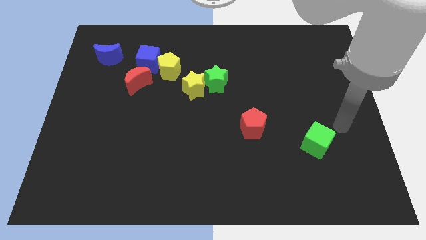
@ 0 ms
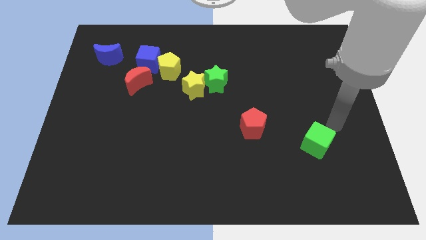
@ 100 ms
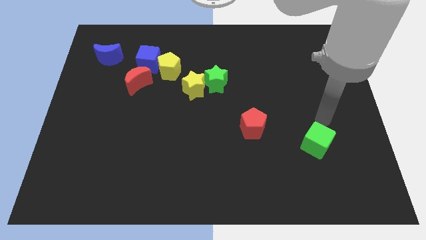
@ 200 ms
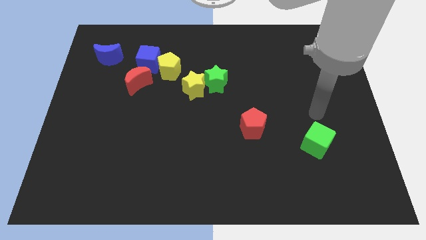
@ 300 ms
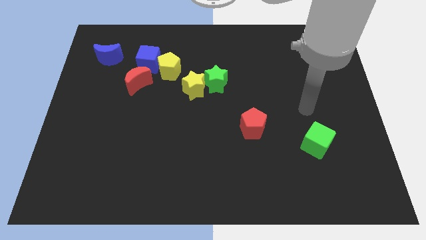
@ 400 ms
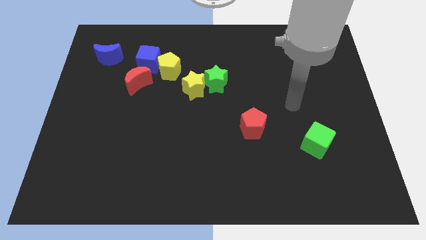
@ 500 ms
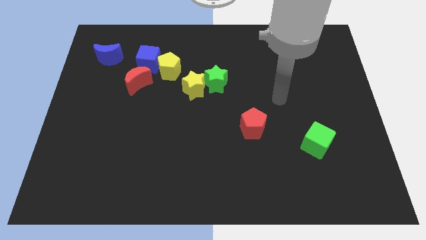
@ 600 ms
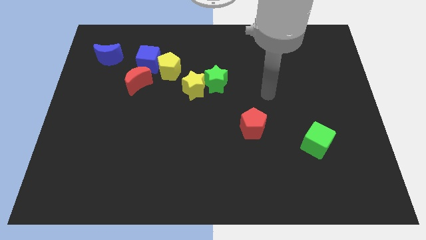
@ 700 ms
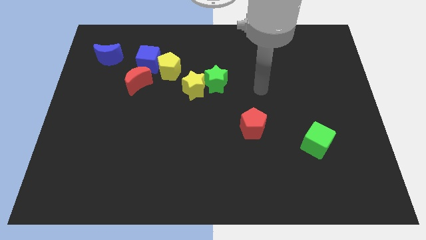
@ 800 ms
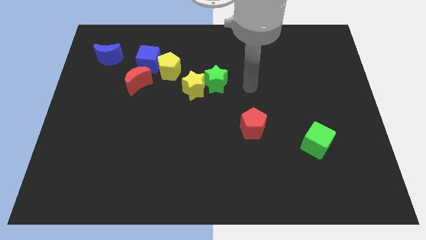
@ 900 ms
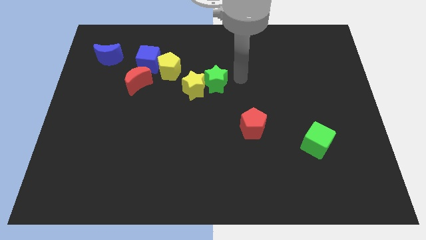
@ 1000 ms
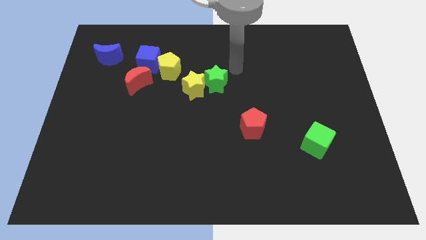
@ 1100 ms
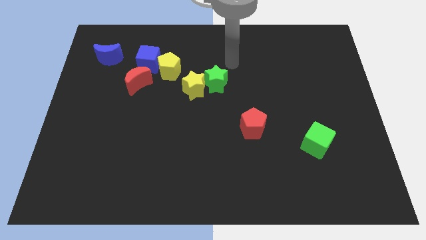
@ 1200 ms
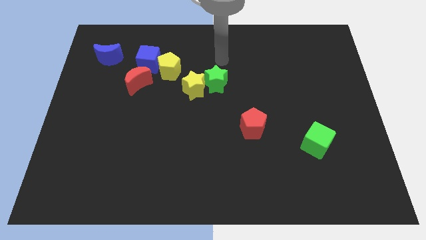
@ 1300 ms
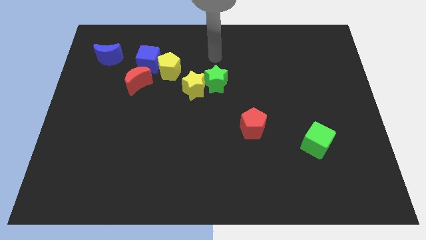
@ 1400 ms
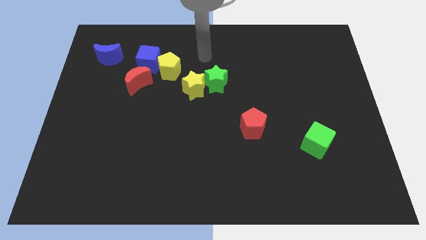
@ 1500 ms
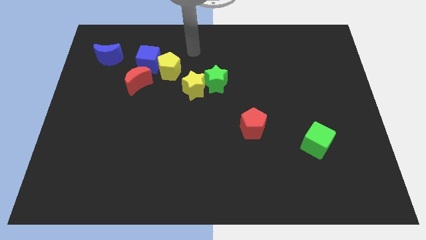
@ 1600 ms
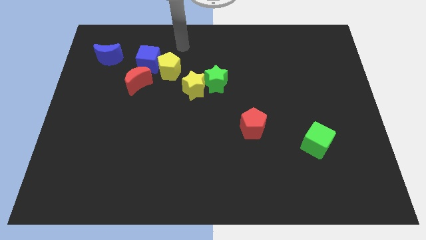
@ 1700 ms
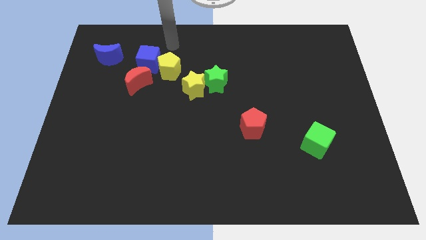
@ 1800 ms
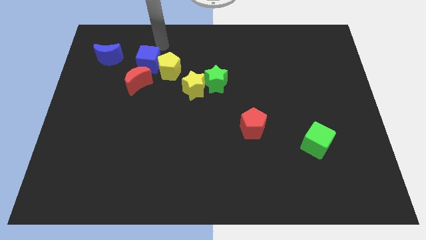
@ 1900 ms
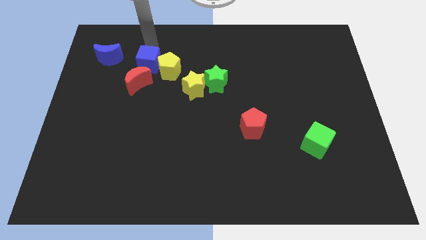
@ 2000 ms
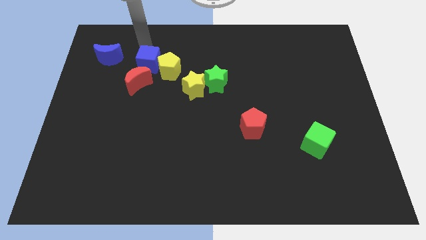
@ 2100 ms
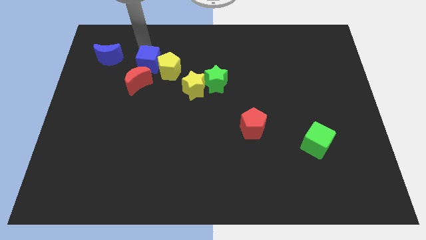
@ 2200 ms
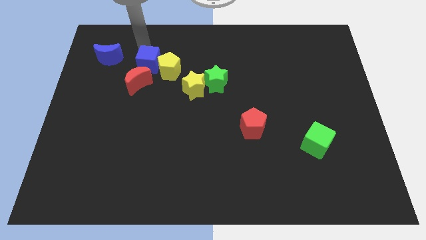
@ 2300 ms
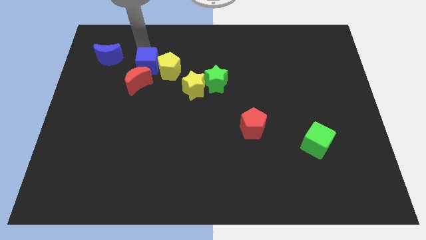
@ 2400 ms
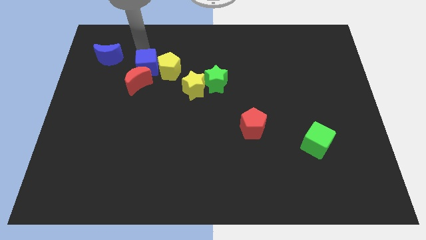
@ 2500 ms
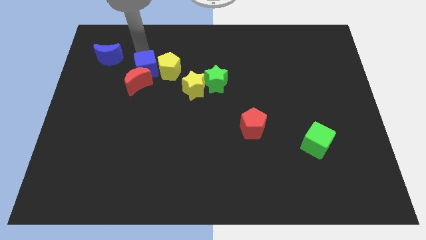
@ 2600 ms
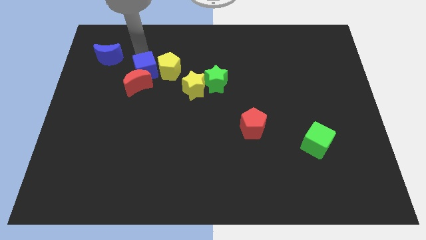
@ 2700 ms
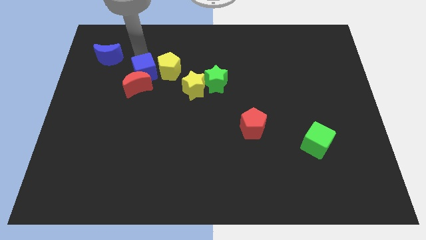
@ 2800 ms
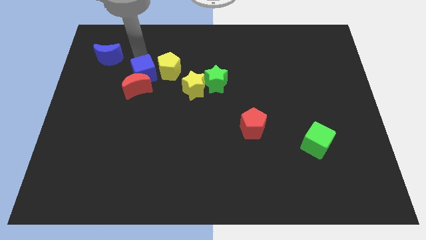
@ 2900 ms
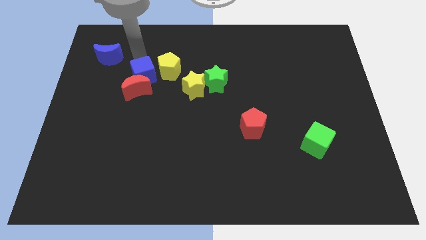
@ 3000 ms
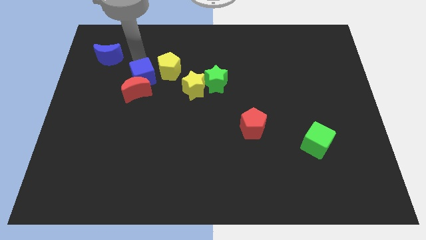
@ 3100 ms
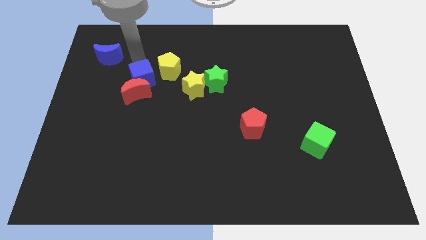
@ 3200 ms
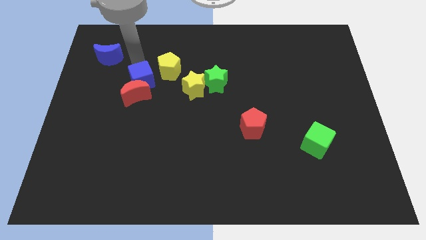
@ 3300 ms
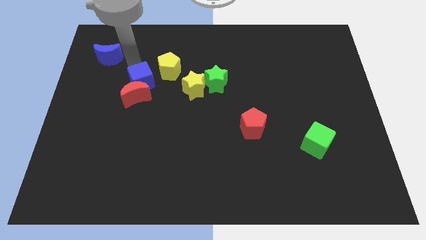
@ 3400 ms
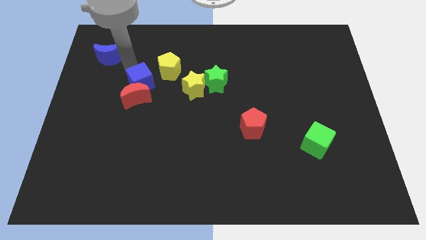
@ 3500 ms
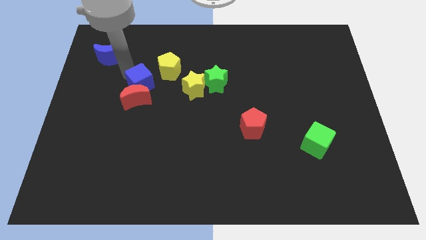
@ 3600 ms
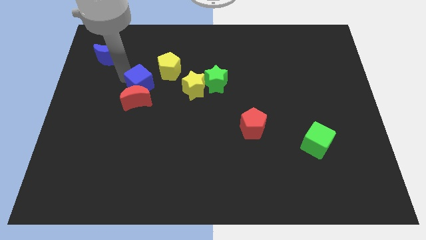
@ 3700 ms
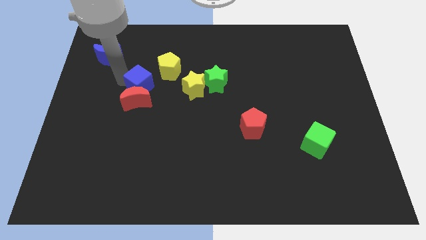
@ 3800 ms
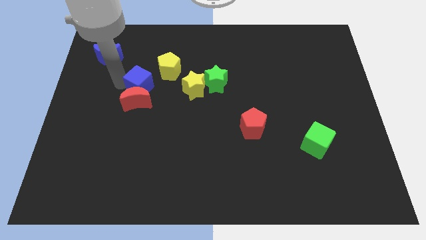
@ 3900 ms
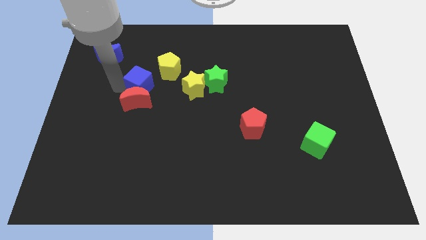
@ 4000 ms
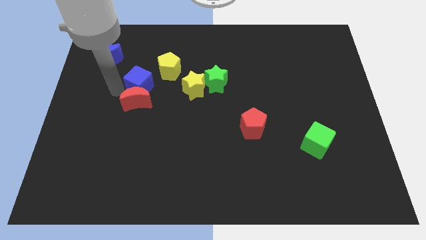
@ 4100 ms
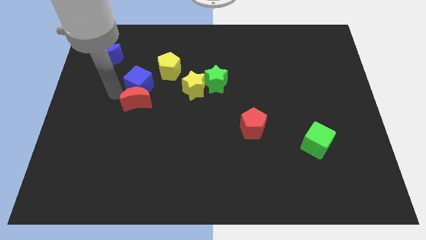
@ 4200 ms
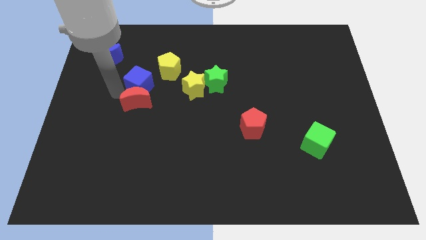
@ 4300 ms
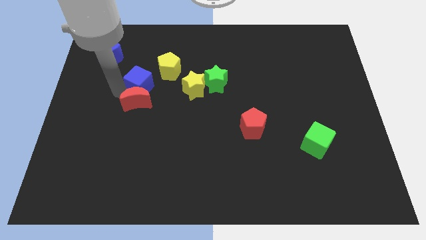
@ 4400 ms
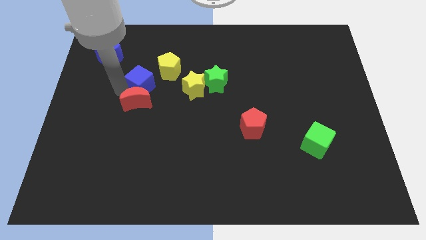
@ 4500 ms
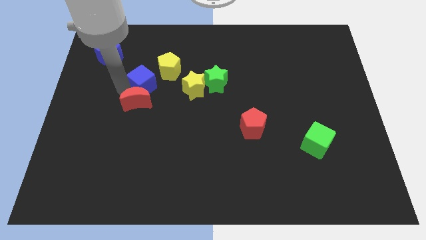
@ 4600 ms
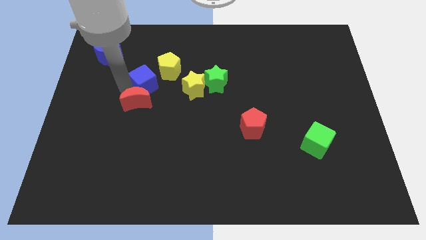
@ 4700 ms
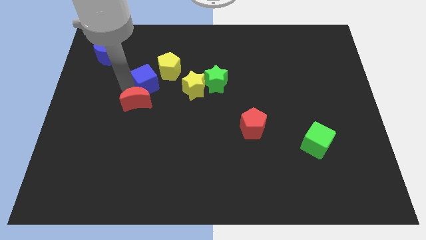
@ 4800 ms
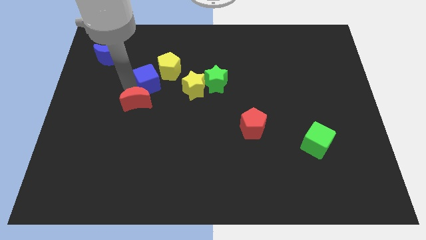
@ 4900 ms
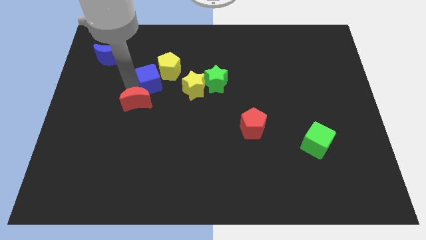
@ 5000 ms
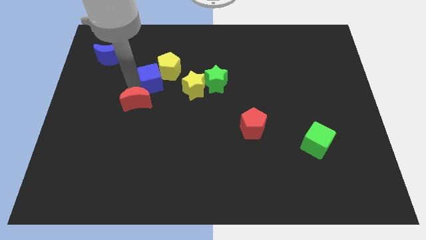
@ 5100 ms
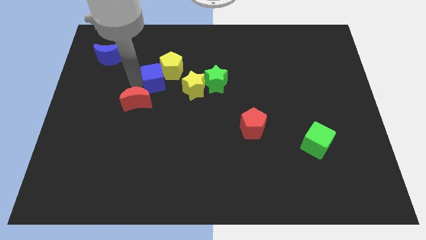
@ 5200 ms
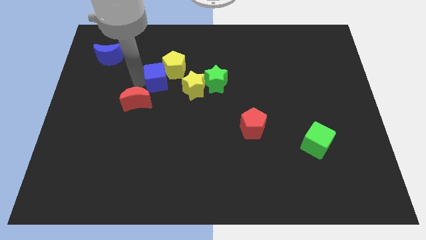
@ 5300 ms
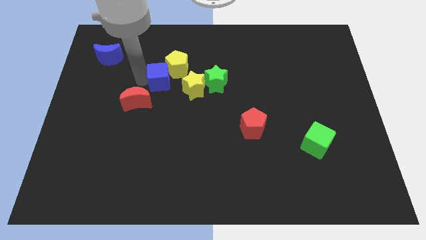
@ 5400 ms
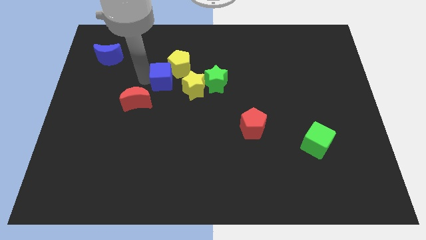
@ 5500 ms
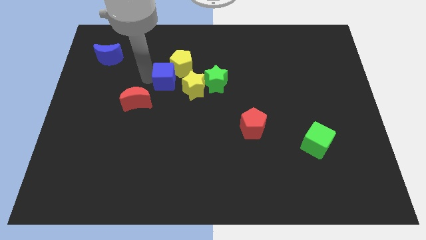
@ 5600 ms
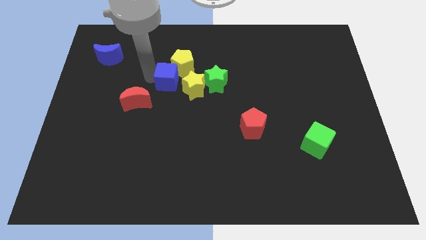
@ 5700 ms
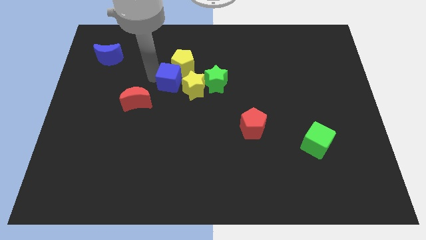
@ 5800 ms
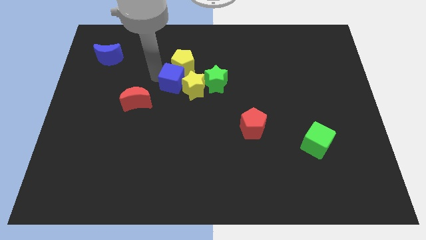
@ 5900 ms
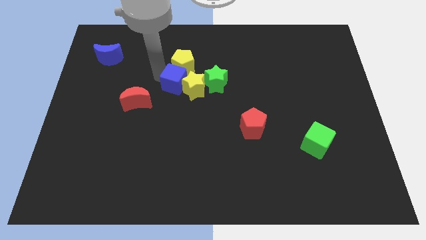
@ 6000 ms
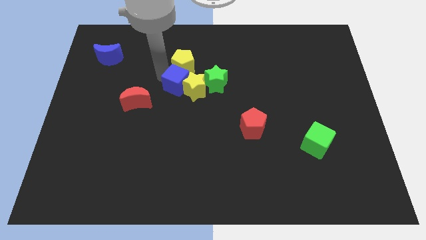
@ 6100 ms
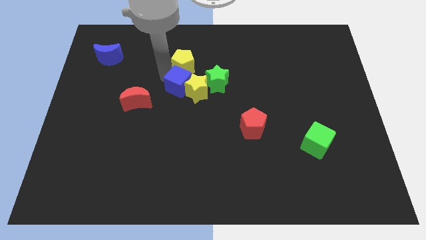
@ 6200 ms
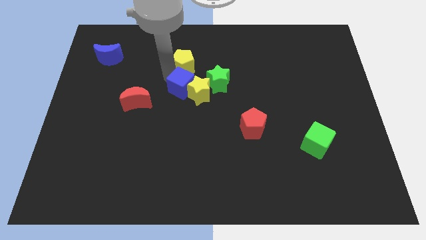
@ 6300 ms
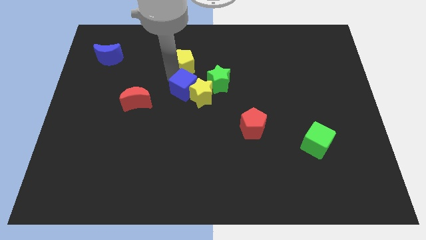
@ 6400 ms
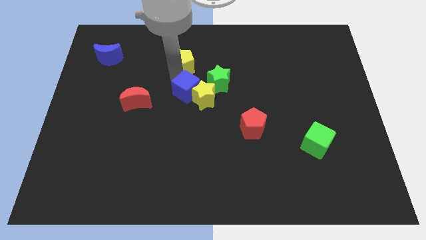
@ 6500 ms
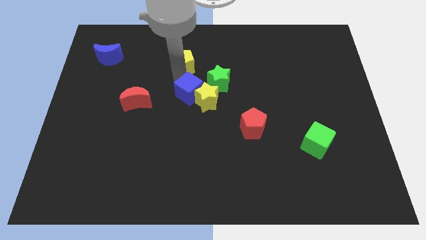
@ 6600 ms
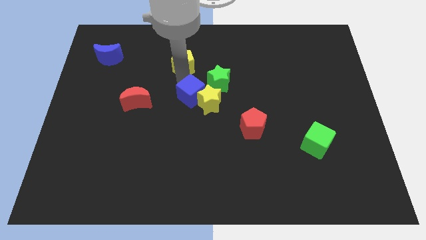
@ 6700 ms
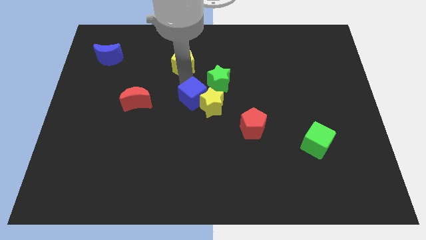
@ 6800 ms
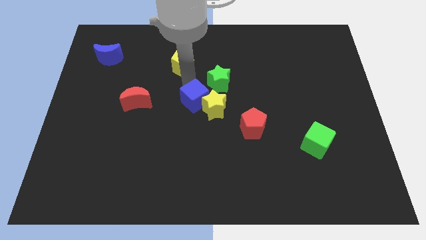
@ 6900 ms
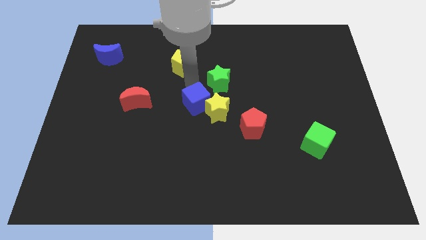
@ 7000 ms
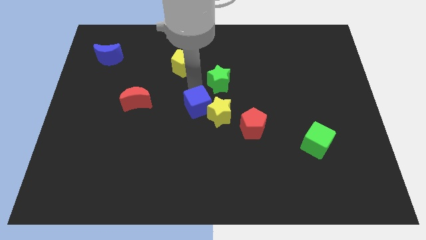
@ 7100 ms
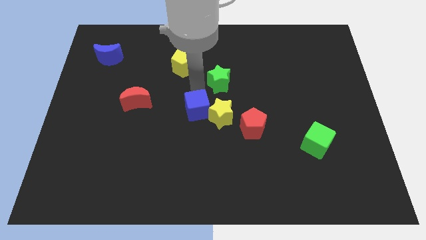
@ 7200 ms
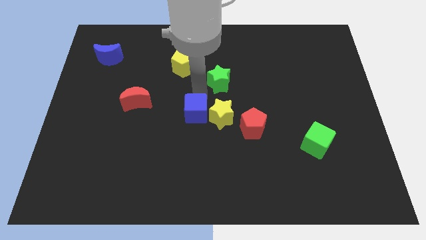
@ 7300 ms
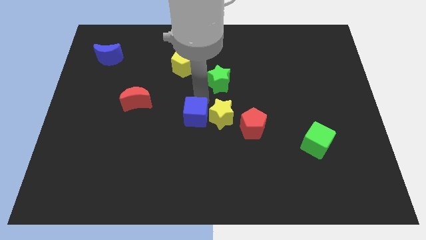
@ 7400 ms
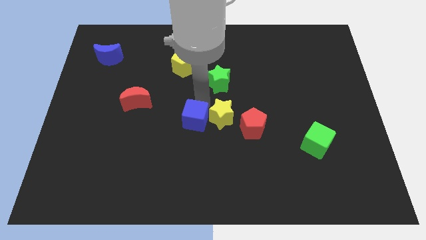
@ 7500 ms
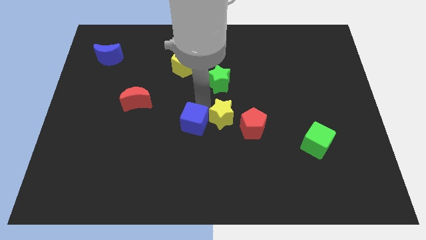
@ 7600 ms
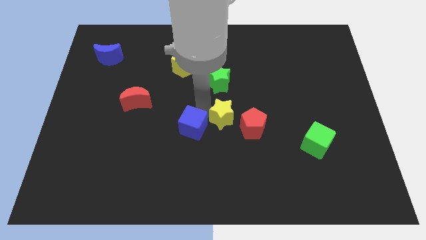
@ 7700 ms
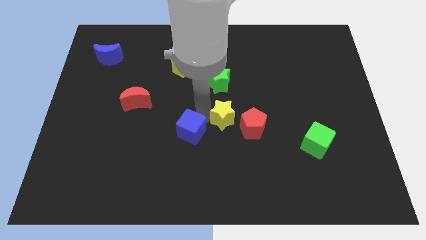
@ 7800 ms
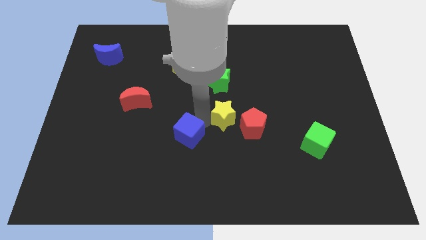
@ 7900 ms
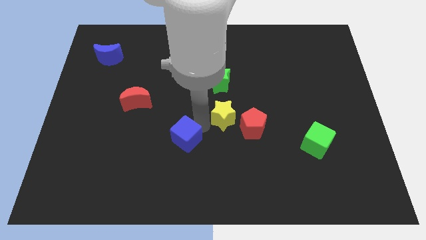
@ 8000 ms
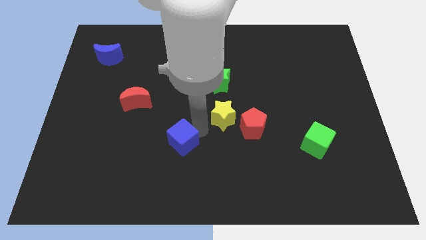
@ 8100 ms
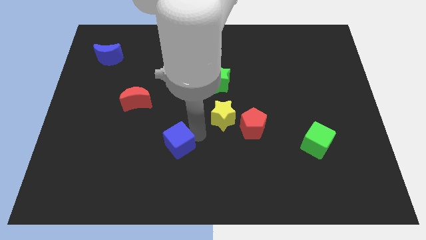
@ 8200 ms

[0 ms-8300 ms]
slide the blue cube down
